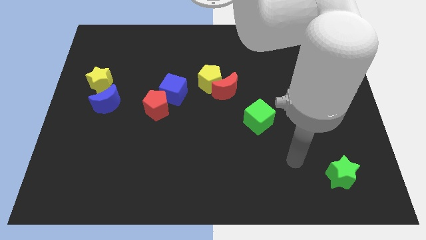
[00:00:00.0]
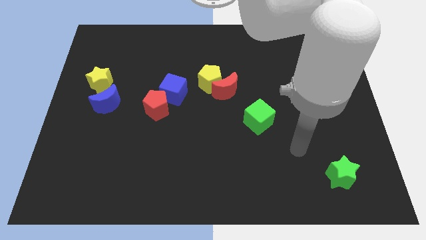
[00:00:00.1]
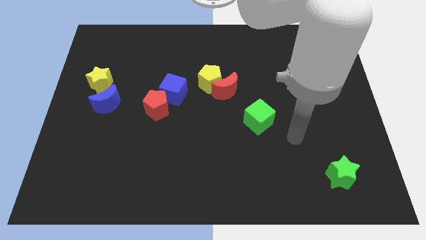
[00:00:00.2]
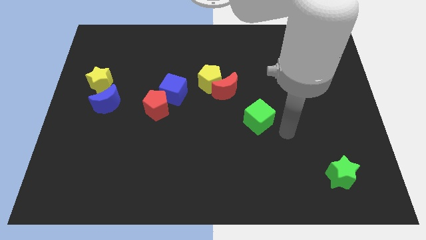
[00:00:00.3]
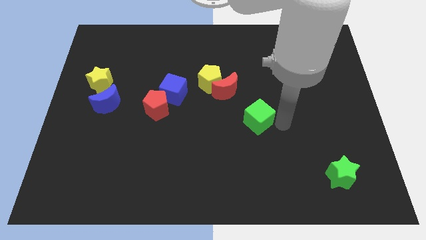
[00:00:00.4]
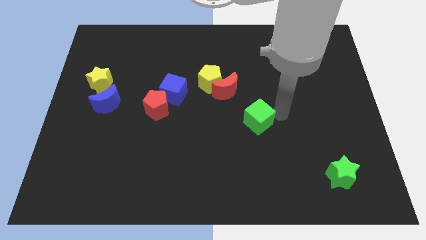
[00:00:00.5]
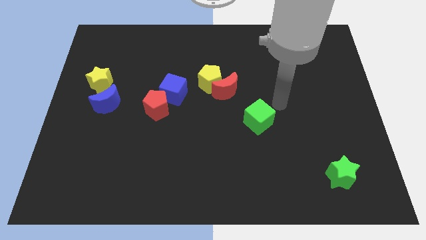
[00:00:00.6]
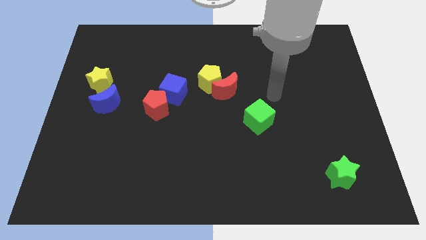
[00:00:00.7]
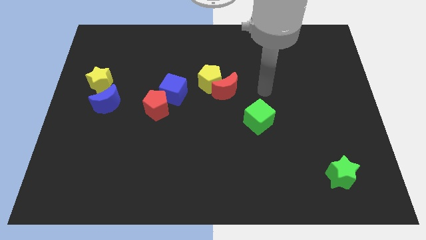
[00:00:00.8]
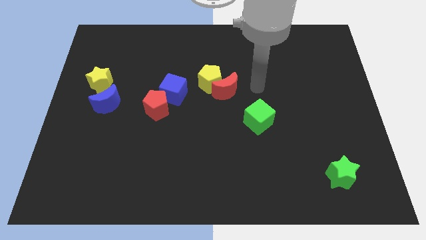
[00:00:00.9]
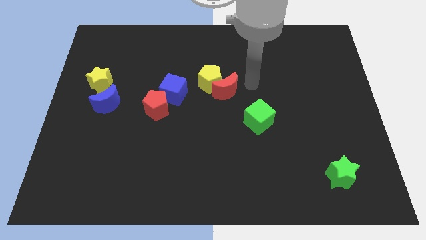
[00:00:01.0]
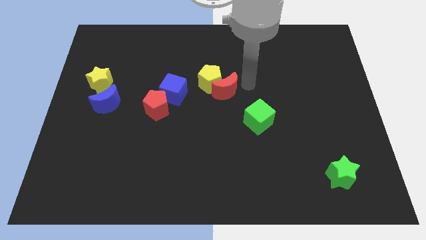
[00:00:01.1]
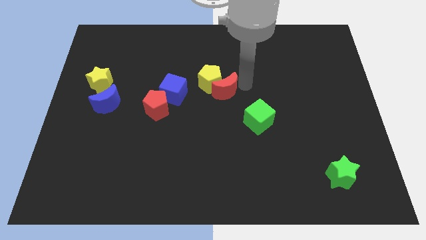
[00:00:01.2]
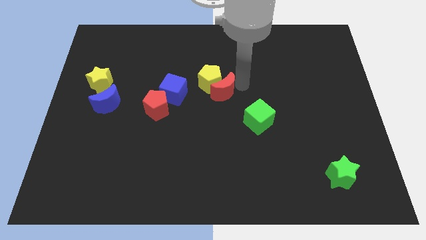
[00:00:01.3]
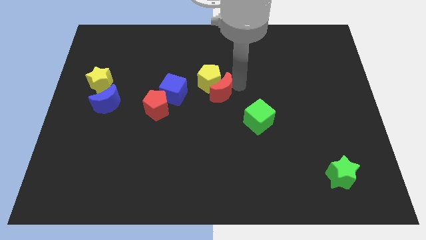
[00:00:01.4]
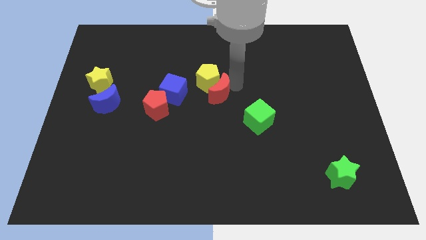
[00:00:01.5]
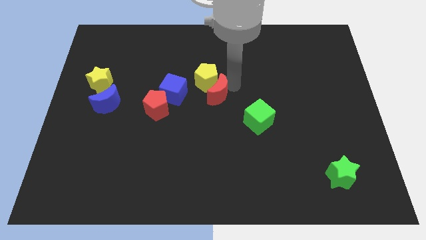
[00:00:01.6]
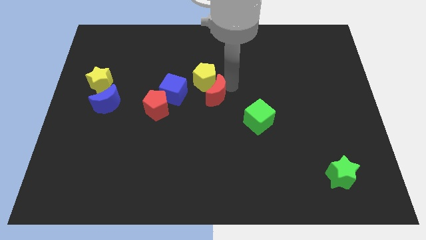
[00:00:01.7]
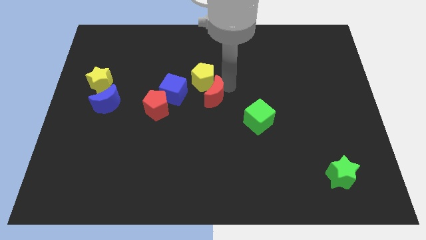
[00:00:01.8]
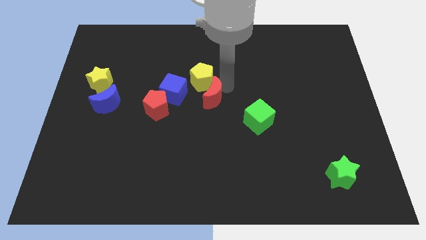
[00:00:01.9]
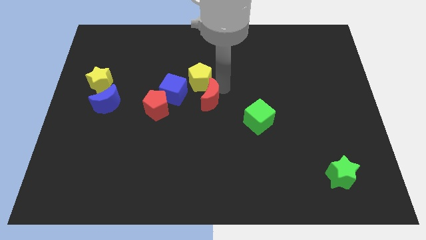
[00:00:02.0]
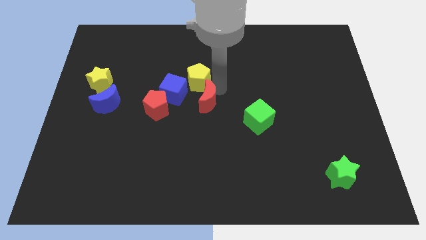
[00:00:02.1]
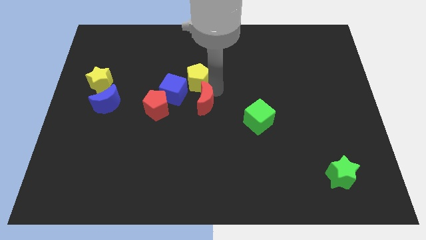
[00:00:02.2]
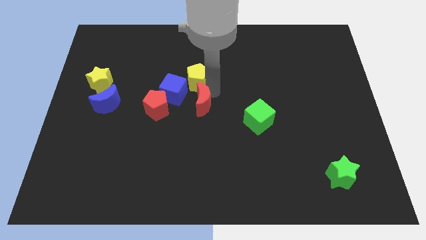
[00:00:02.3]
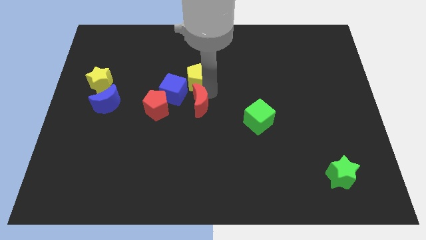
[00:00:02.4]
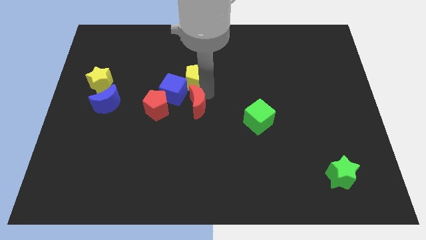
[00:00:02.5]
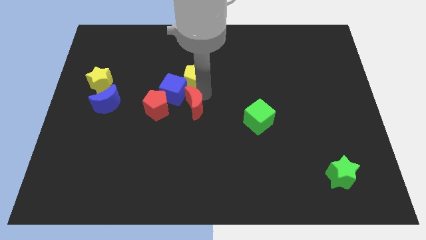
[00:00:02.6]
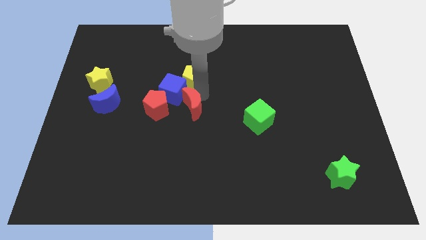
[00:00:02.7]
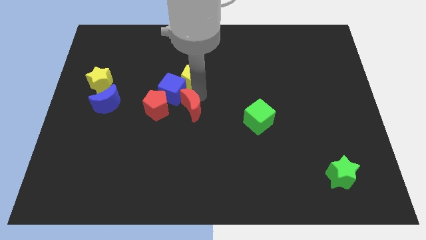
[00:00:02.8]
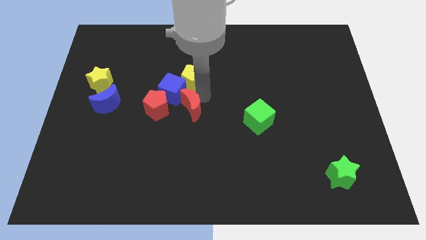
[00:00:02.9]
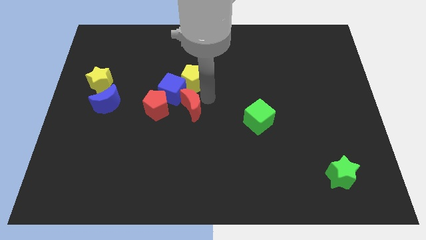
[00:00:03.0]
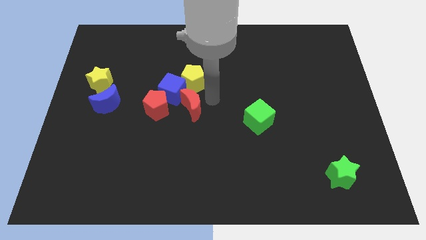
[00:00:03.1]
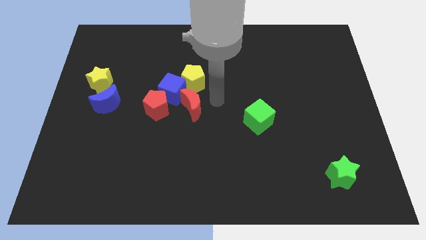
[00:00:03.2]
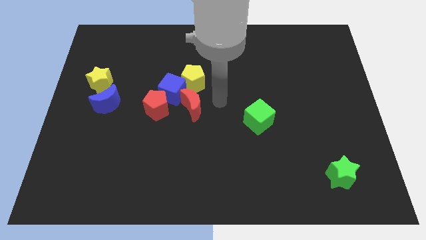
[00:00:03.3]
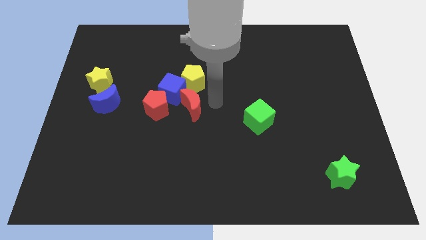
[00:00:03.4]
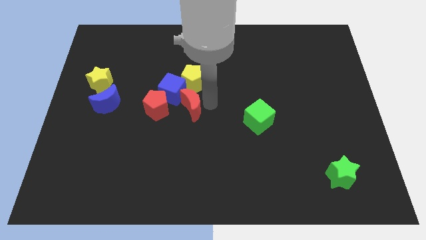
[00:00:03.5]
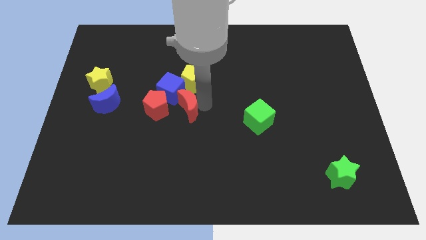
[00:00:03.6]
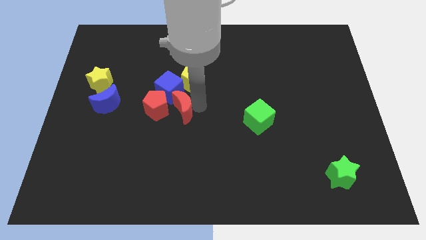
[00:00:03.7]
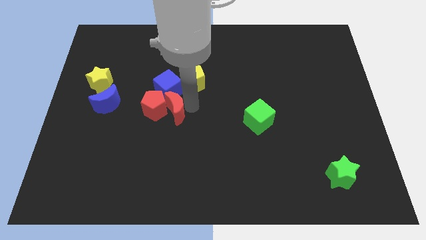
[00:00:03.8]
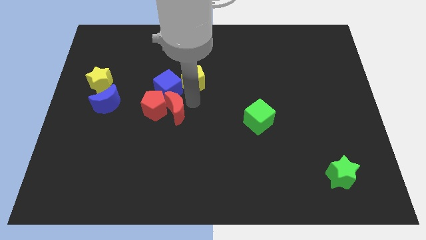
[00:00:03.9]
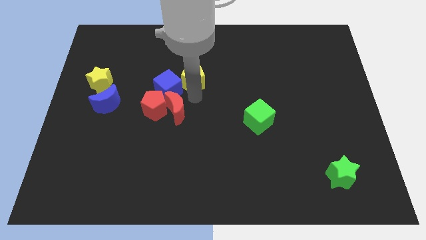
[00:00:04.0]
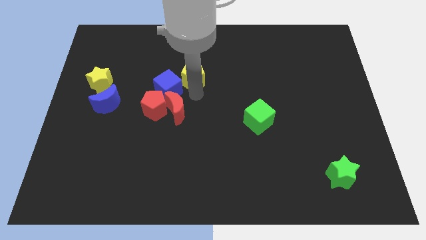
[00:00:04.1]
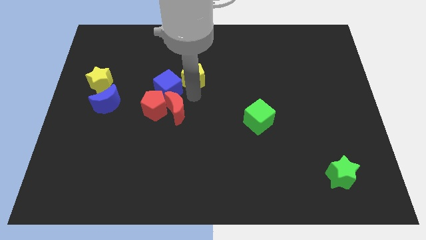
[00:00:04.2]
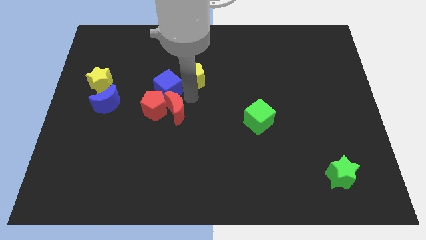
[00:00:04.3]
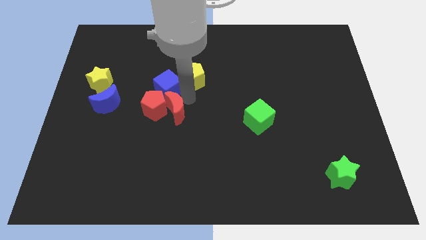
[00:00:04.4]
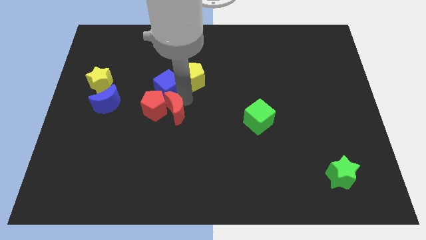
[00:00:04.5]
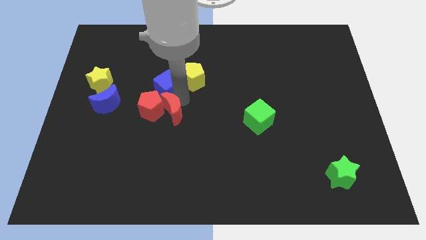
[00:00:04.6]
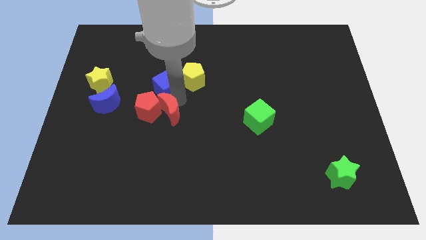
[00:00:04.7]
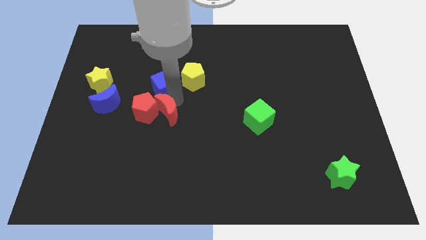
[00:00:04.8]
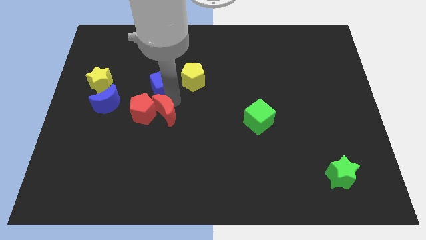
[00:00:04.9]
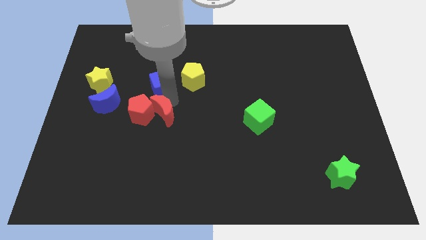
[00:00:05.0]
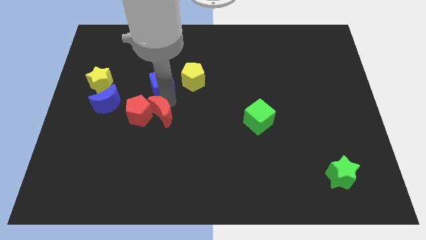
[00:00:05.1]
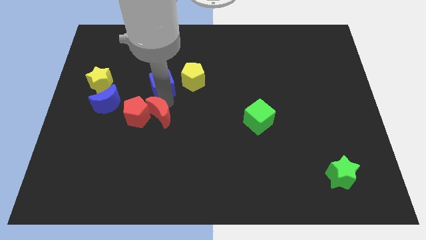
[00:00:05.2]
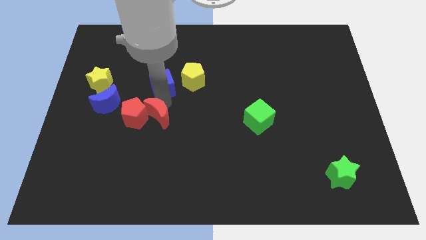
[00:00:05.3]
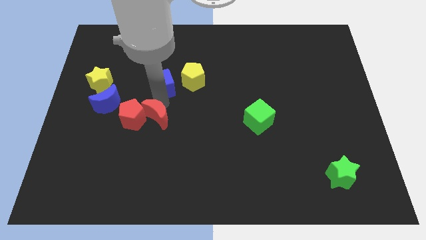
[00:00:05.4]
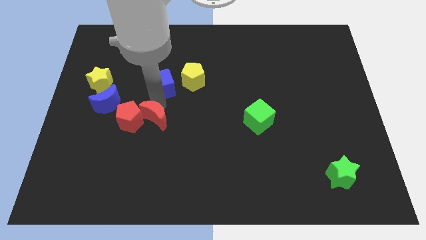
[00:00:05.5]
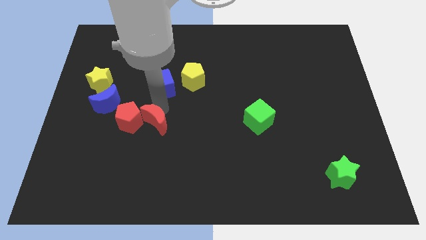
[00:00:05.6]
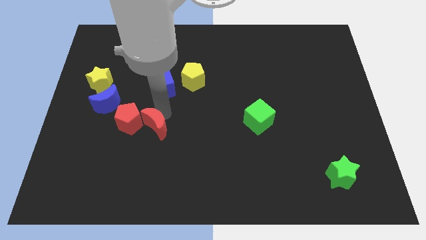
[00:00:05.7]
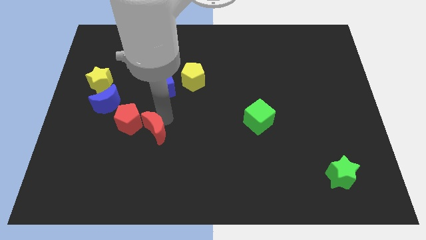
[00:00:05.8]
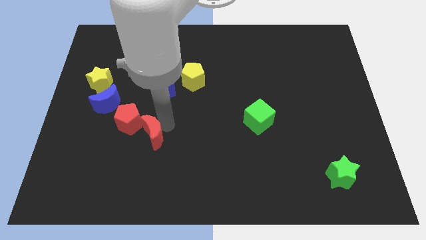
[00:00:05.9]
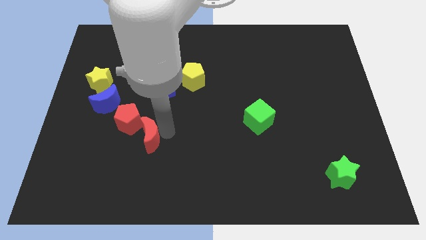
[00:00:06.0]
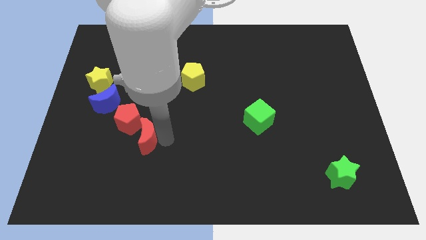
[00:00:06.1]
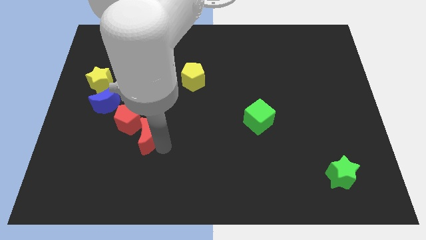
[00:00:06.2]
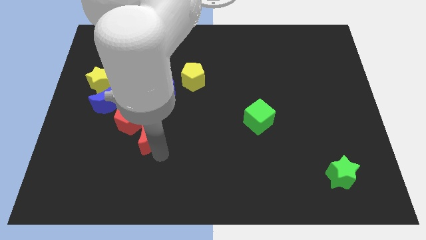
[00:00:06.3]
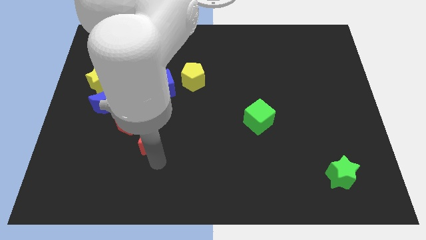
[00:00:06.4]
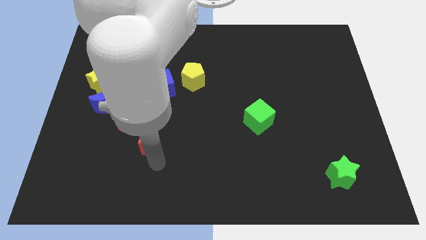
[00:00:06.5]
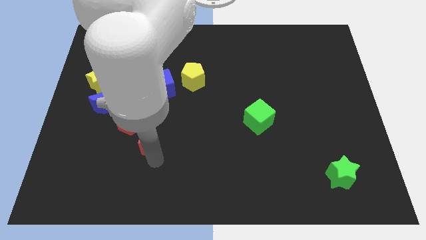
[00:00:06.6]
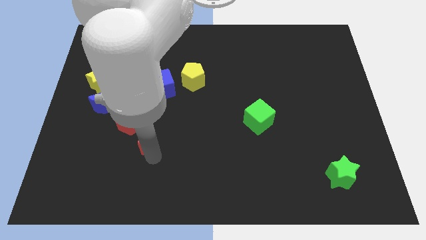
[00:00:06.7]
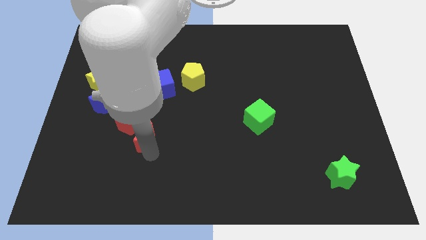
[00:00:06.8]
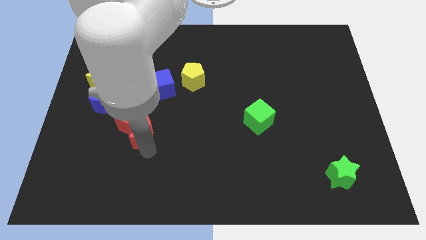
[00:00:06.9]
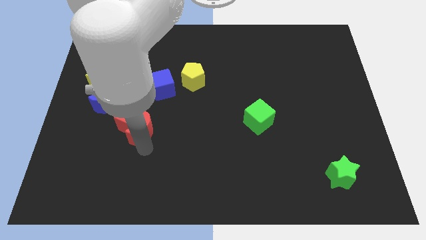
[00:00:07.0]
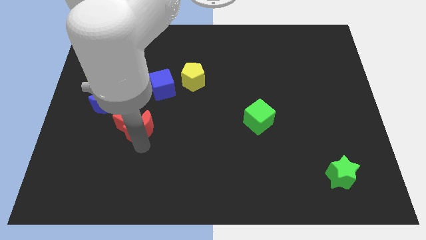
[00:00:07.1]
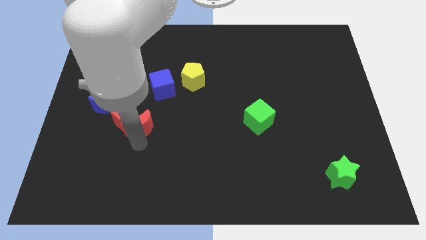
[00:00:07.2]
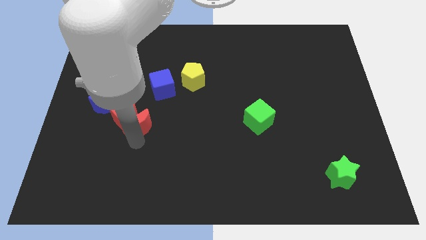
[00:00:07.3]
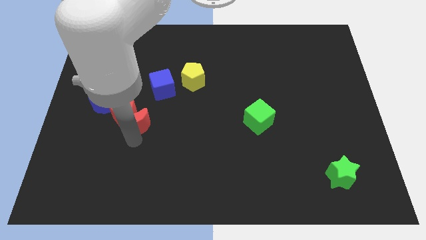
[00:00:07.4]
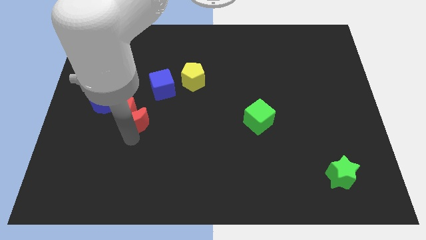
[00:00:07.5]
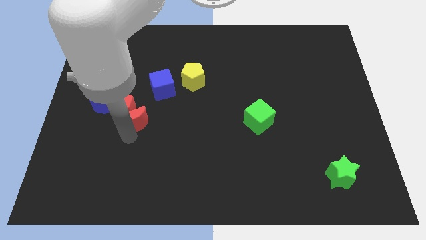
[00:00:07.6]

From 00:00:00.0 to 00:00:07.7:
move the red moon to the bottom left side of the blue cube
